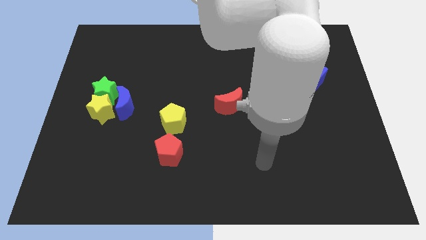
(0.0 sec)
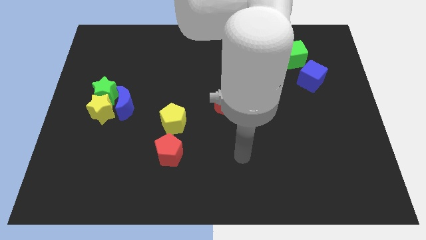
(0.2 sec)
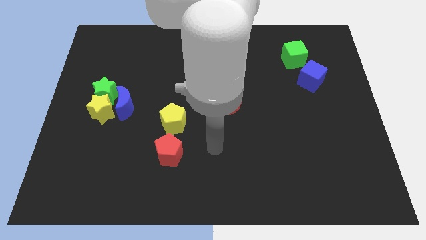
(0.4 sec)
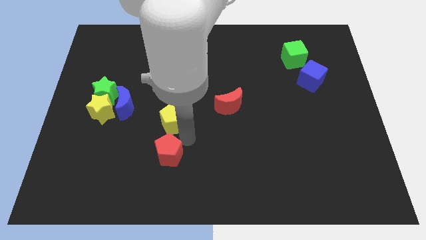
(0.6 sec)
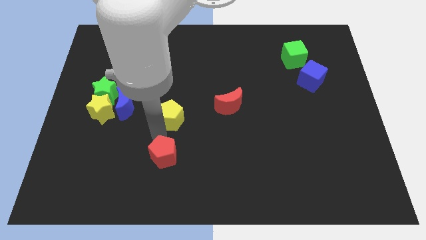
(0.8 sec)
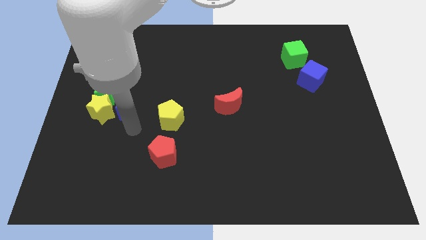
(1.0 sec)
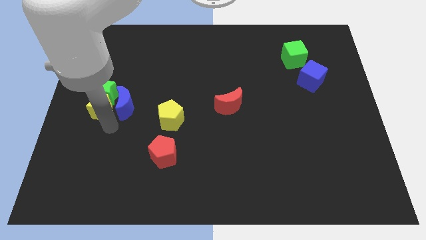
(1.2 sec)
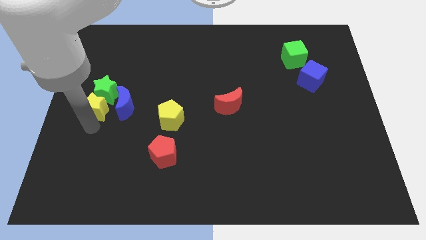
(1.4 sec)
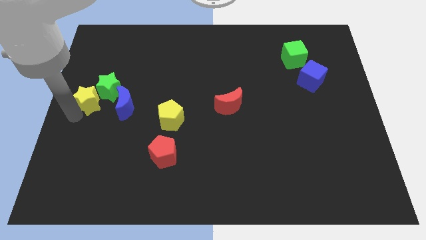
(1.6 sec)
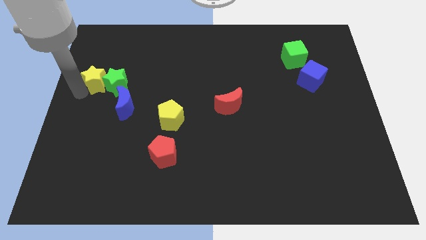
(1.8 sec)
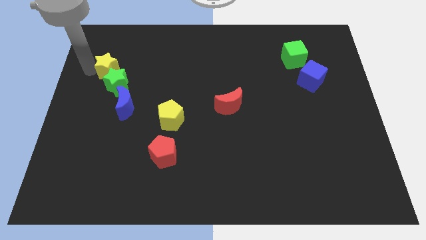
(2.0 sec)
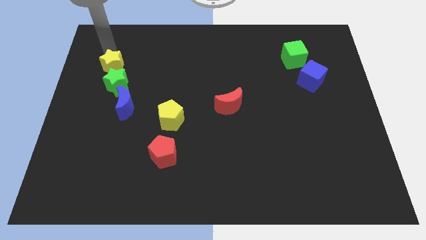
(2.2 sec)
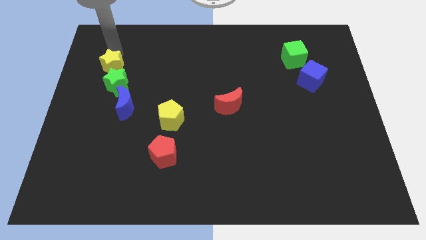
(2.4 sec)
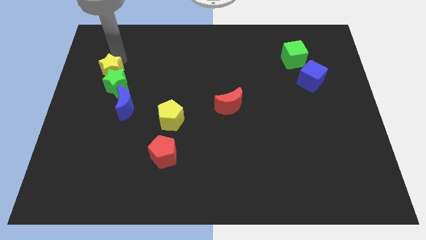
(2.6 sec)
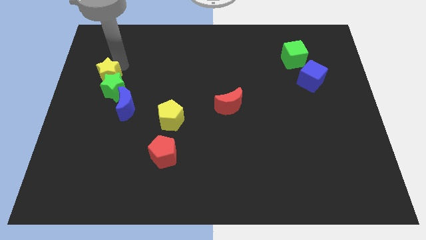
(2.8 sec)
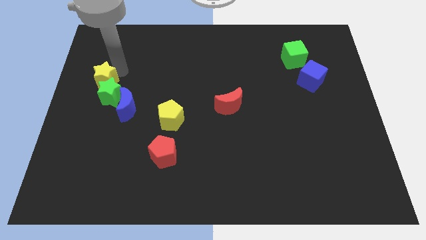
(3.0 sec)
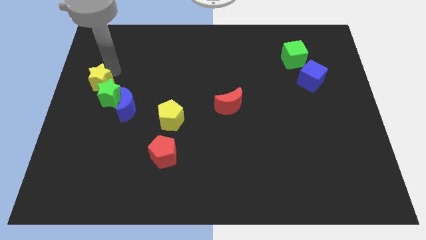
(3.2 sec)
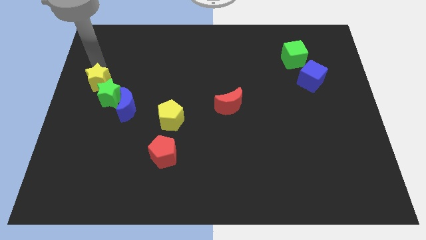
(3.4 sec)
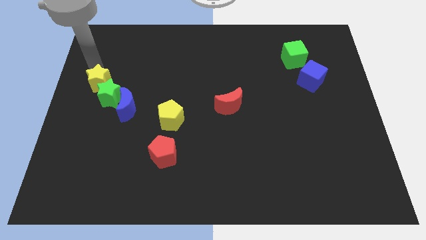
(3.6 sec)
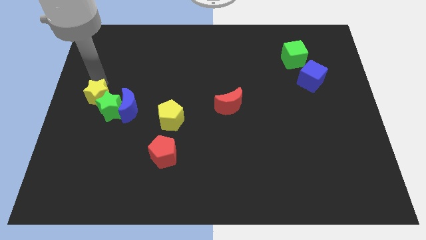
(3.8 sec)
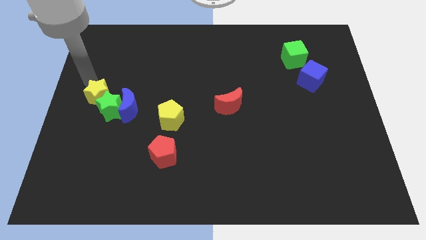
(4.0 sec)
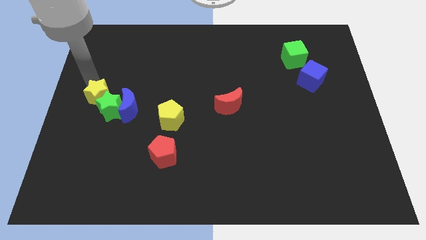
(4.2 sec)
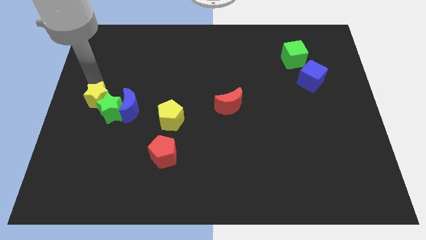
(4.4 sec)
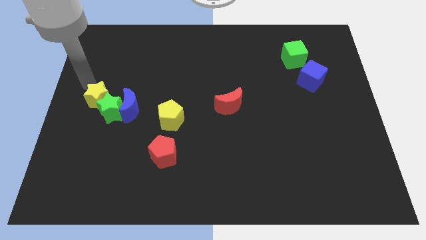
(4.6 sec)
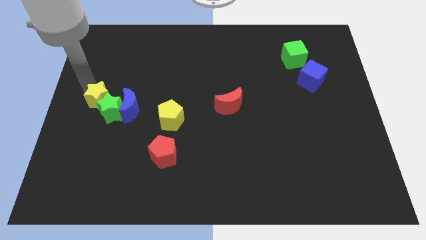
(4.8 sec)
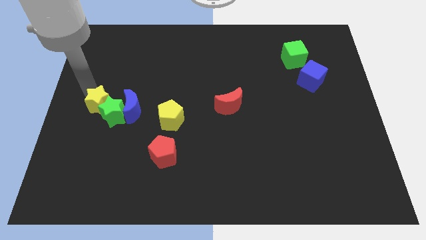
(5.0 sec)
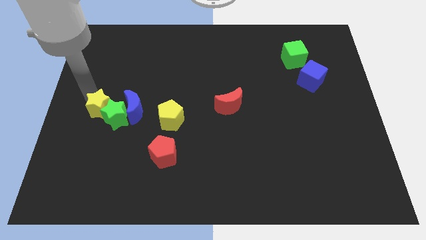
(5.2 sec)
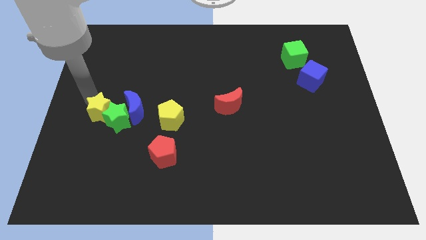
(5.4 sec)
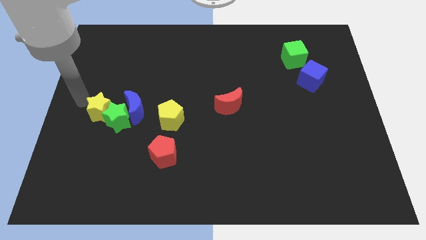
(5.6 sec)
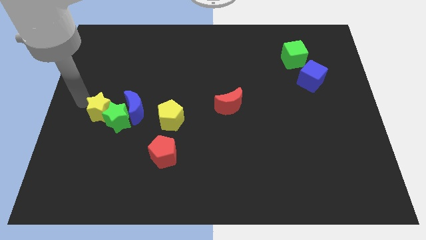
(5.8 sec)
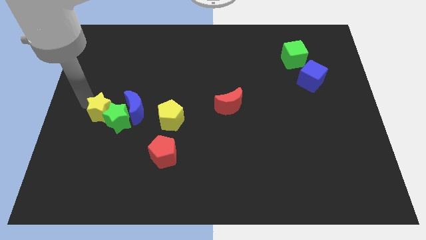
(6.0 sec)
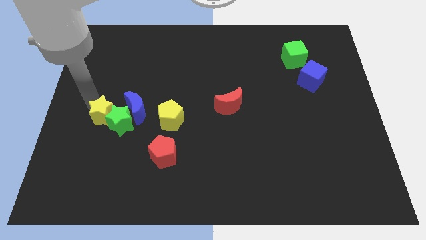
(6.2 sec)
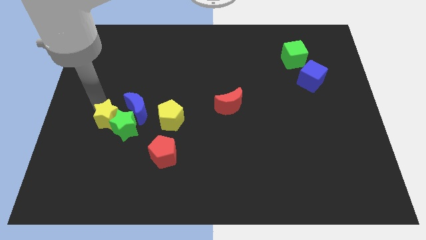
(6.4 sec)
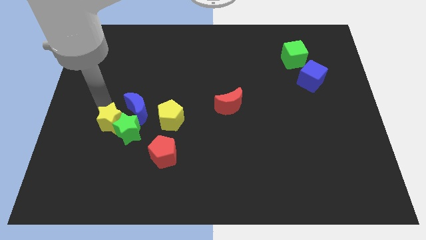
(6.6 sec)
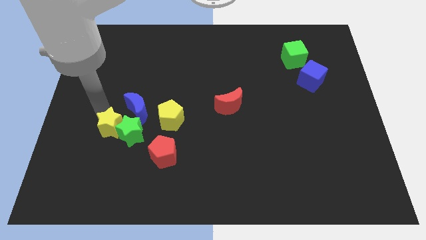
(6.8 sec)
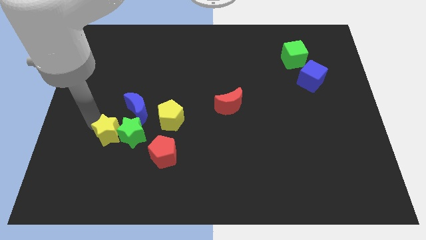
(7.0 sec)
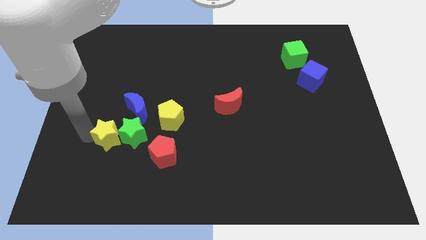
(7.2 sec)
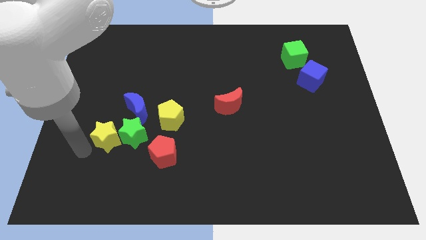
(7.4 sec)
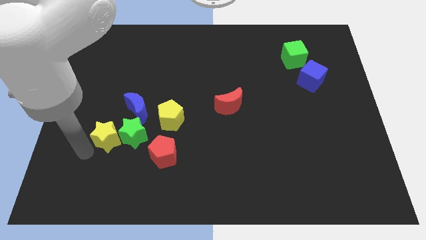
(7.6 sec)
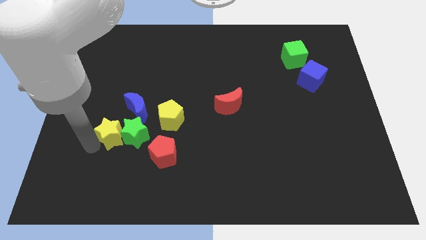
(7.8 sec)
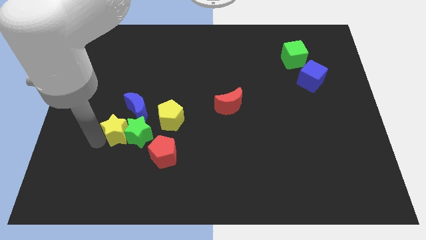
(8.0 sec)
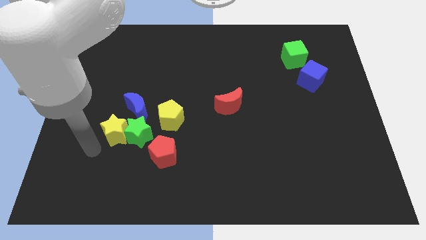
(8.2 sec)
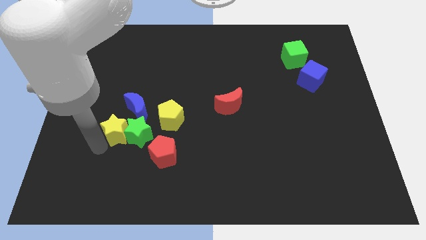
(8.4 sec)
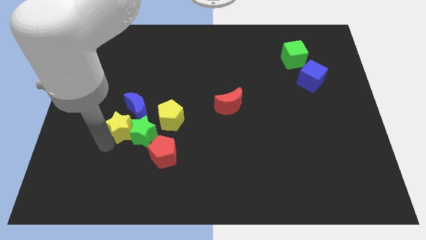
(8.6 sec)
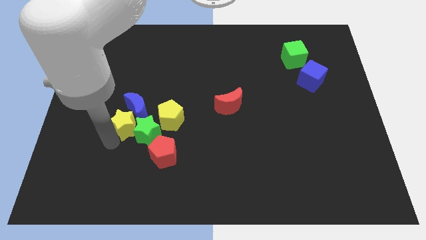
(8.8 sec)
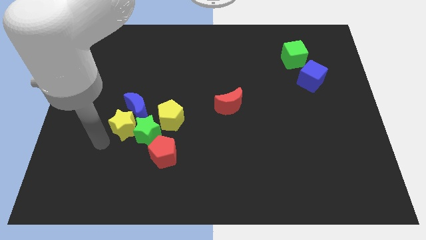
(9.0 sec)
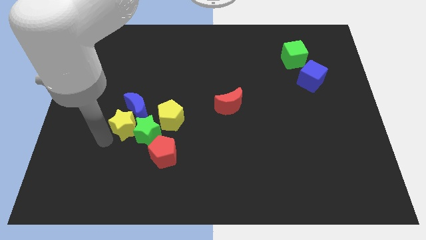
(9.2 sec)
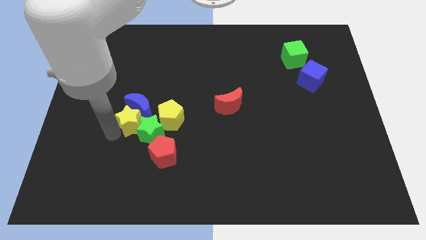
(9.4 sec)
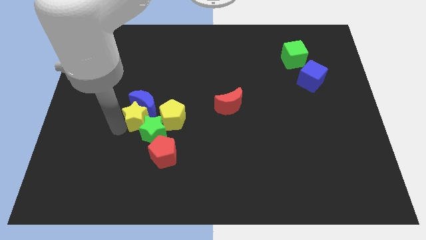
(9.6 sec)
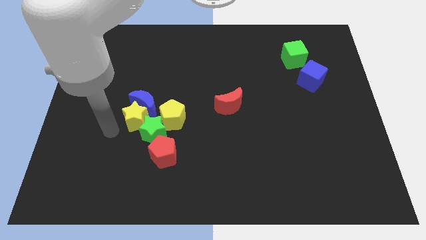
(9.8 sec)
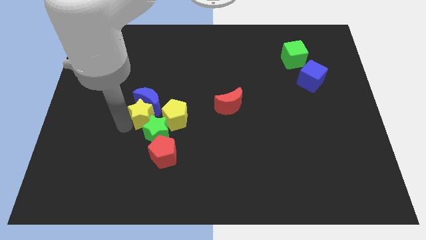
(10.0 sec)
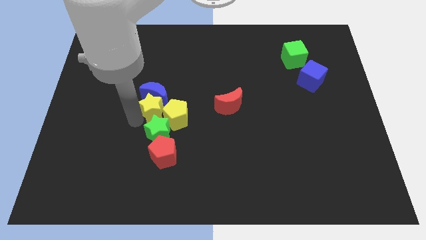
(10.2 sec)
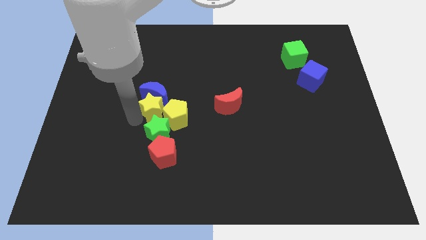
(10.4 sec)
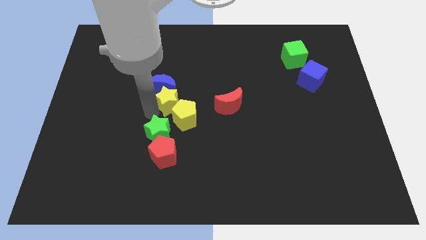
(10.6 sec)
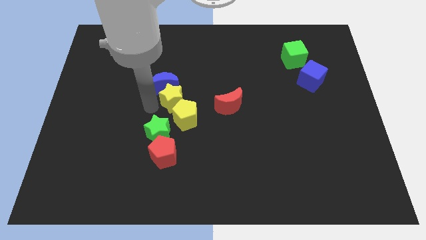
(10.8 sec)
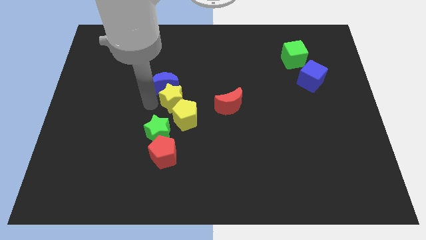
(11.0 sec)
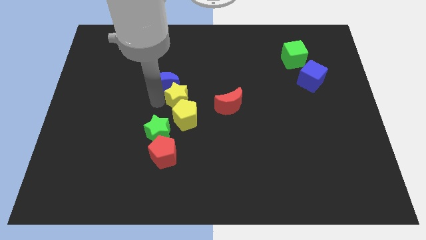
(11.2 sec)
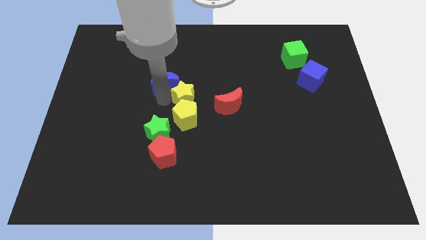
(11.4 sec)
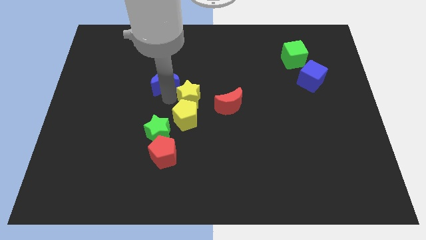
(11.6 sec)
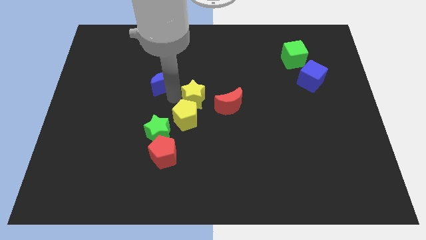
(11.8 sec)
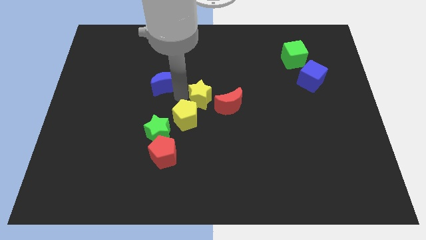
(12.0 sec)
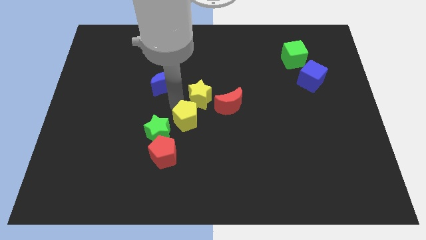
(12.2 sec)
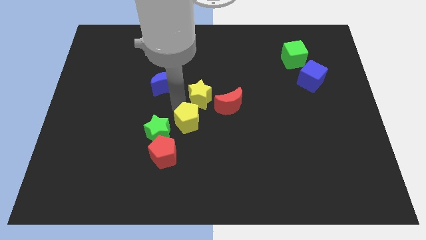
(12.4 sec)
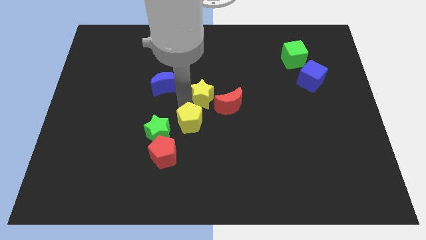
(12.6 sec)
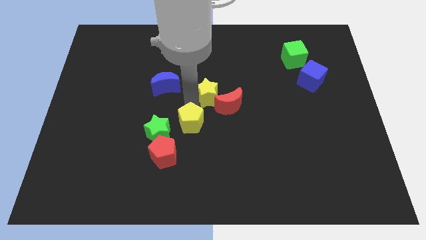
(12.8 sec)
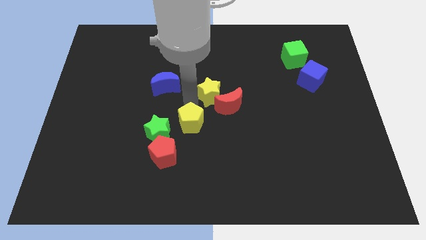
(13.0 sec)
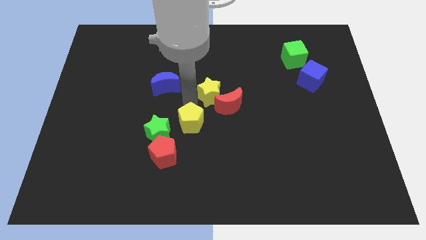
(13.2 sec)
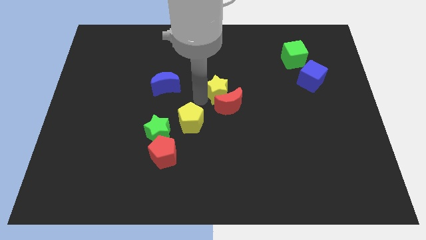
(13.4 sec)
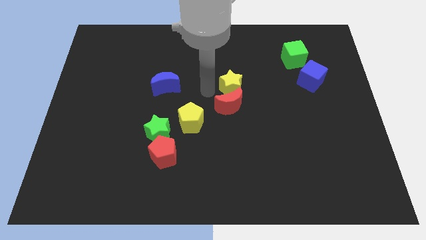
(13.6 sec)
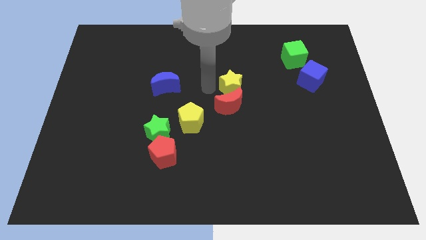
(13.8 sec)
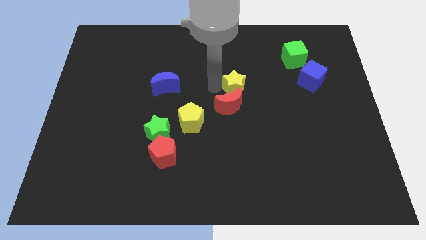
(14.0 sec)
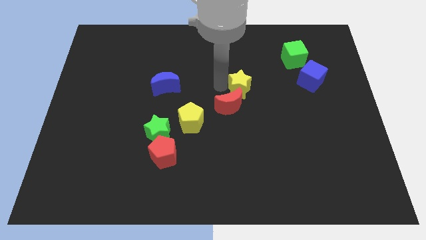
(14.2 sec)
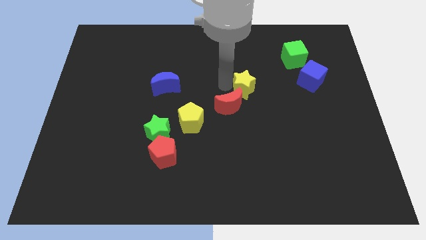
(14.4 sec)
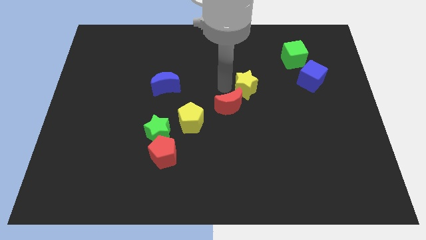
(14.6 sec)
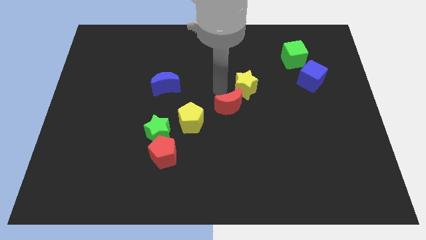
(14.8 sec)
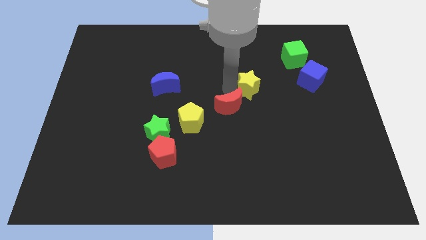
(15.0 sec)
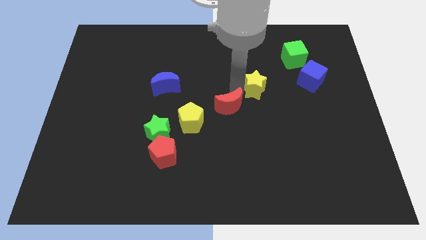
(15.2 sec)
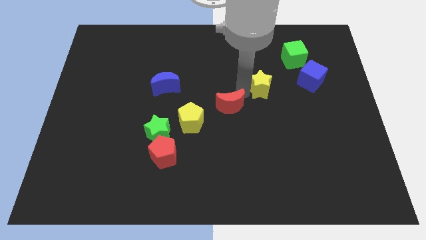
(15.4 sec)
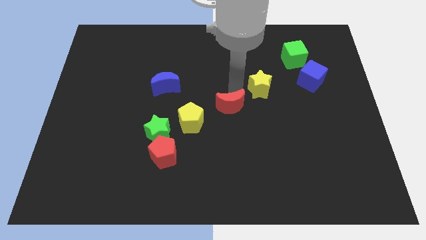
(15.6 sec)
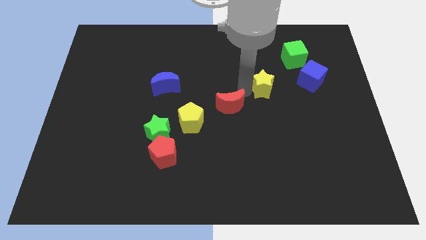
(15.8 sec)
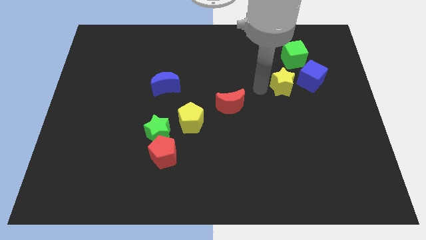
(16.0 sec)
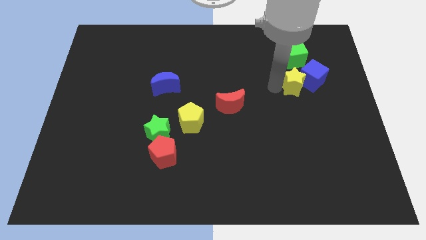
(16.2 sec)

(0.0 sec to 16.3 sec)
push the yellow star to the blue cube
